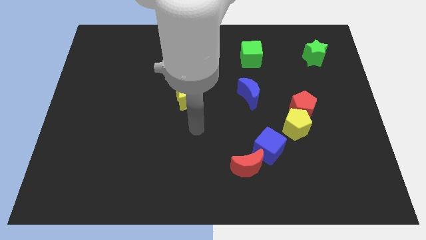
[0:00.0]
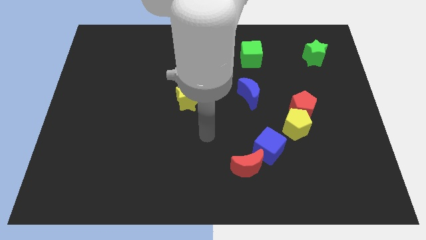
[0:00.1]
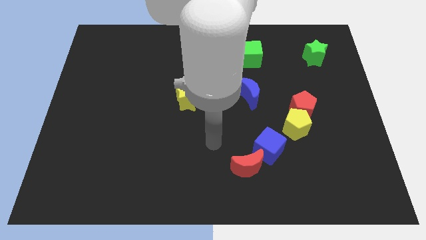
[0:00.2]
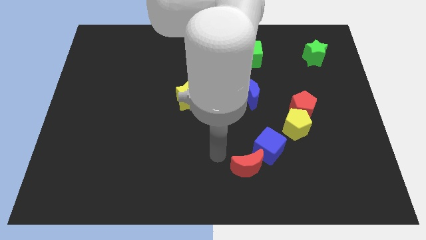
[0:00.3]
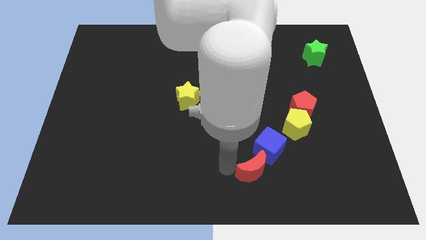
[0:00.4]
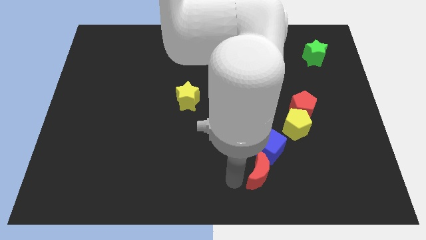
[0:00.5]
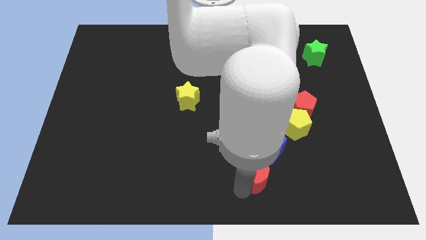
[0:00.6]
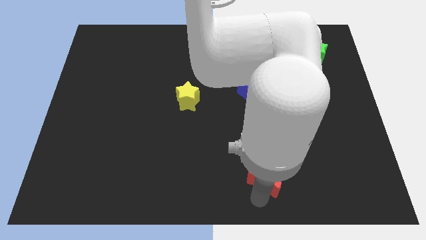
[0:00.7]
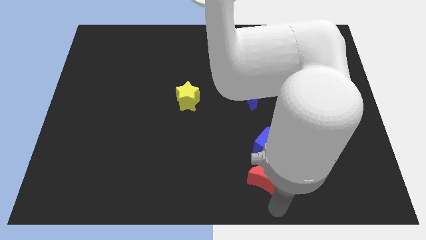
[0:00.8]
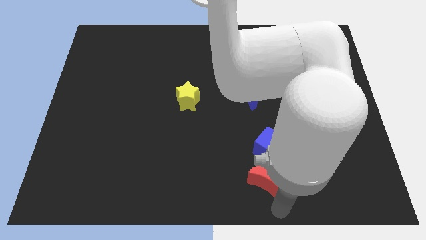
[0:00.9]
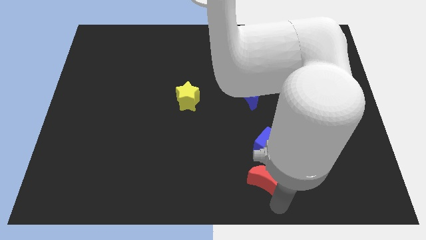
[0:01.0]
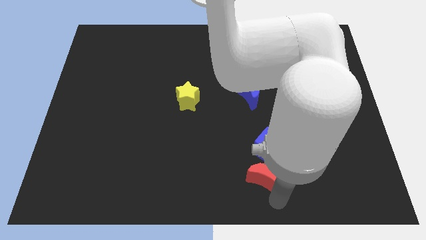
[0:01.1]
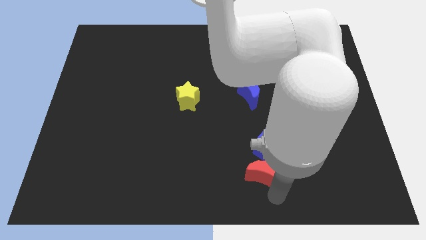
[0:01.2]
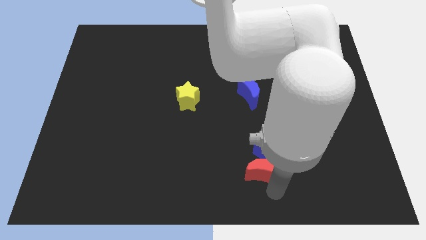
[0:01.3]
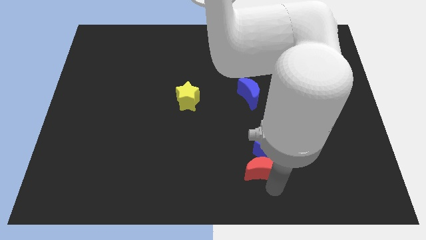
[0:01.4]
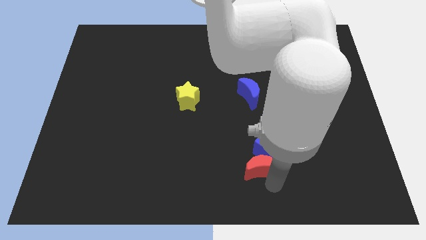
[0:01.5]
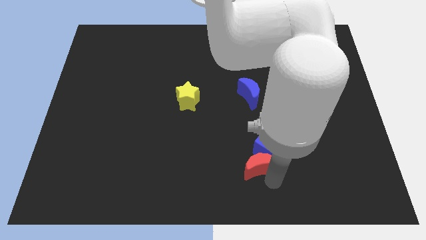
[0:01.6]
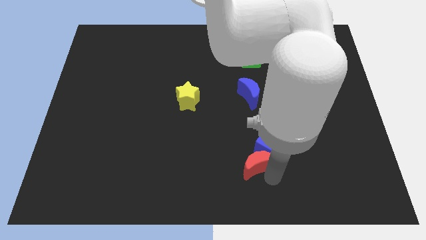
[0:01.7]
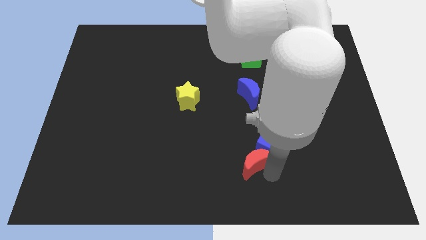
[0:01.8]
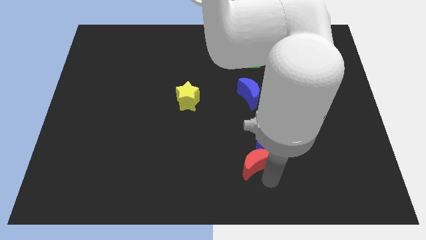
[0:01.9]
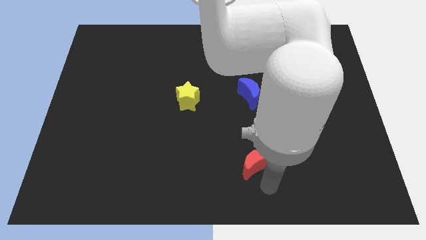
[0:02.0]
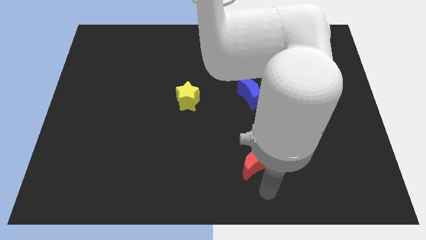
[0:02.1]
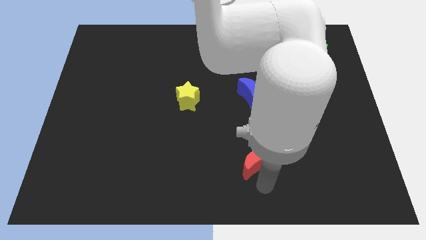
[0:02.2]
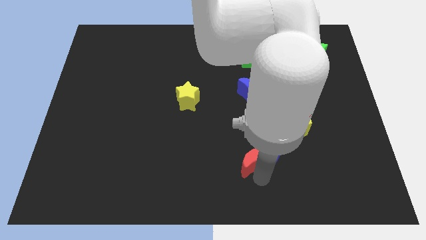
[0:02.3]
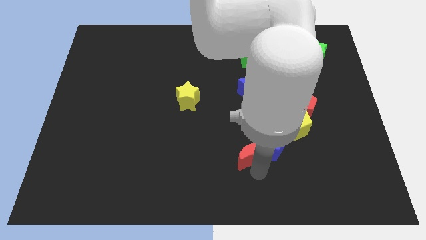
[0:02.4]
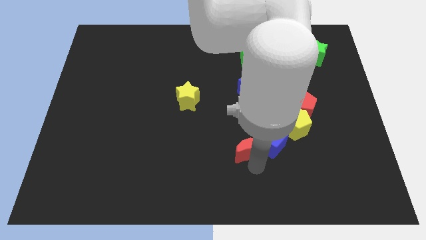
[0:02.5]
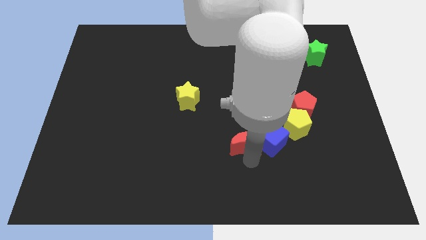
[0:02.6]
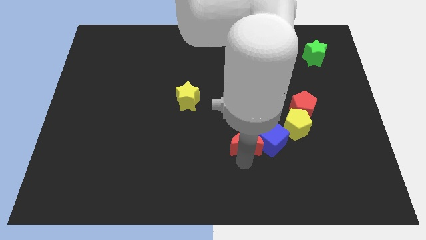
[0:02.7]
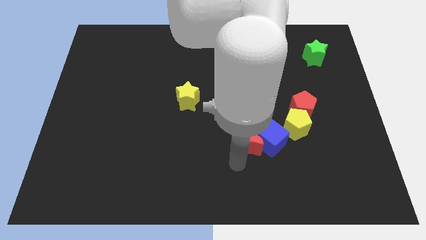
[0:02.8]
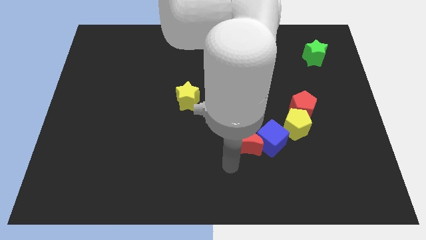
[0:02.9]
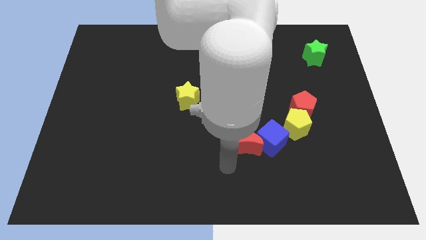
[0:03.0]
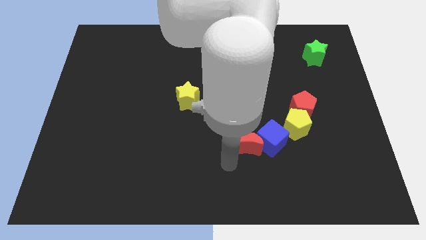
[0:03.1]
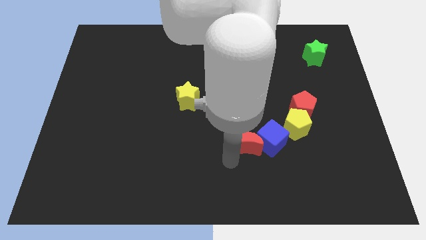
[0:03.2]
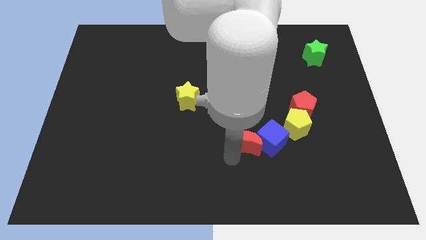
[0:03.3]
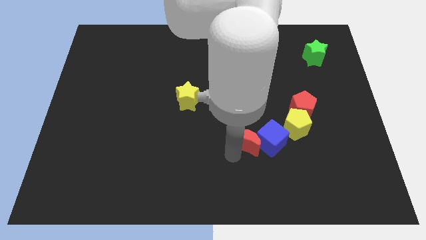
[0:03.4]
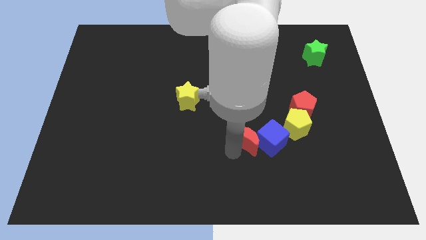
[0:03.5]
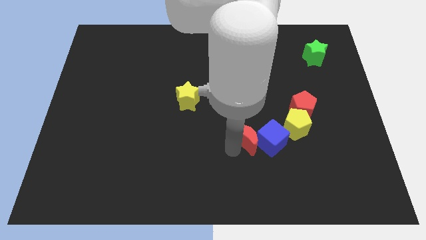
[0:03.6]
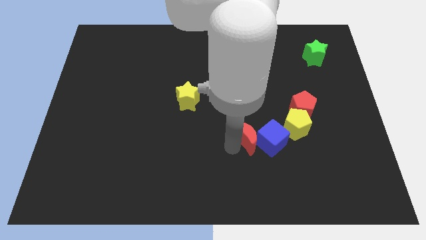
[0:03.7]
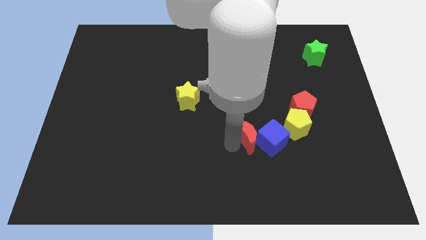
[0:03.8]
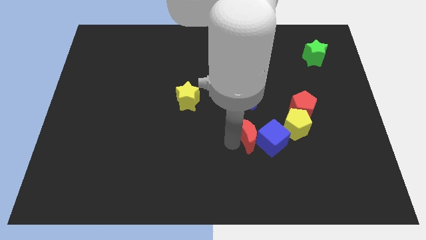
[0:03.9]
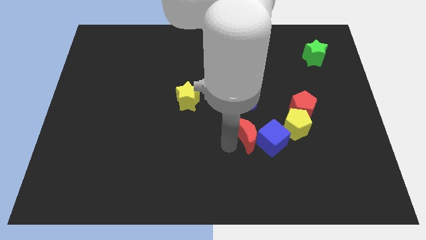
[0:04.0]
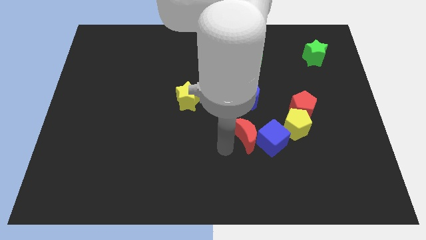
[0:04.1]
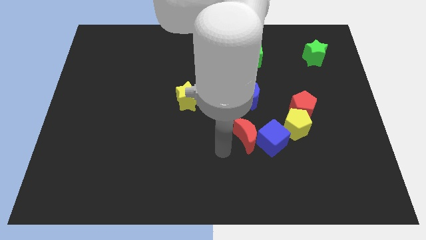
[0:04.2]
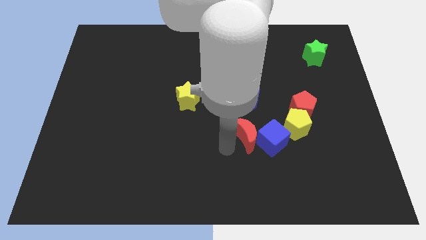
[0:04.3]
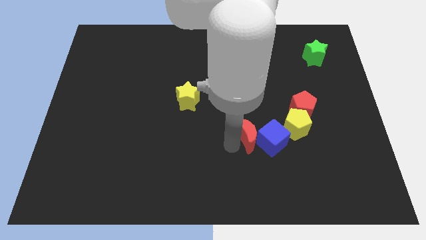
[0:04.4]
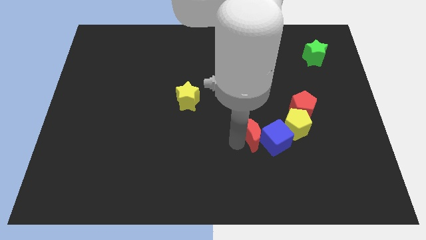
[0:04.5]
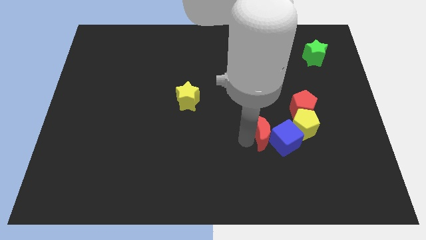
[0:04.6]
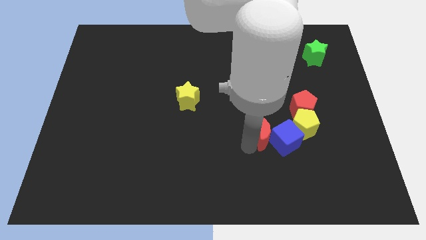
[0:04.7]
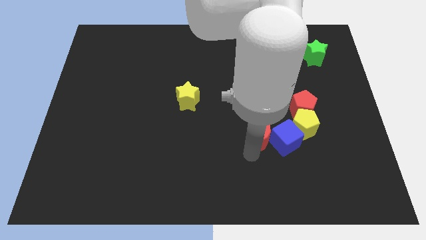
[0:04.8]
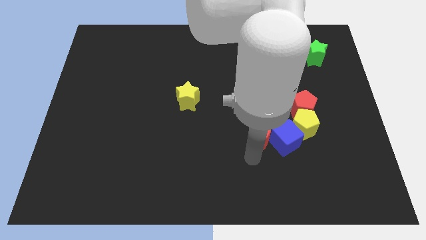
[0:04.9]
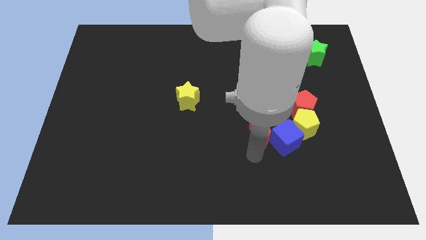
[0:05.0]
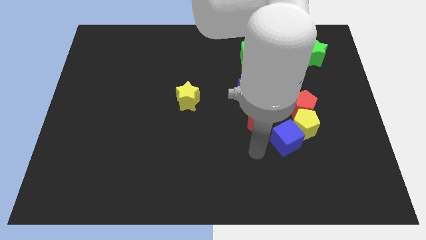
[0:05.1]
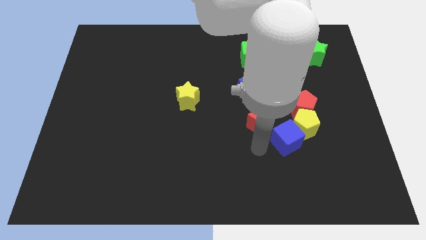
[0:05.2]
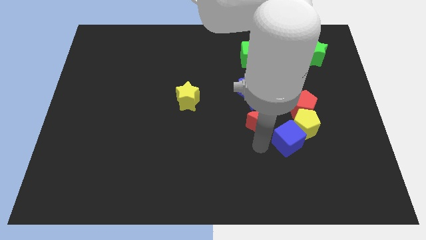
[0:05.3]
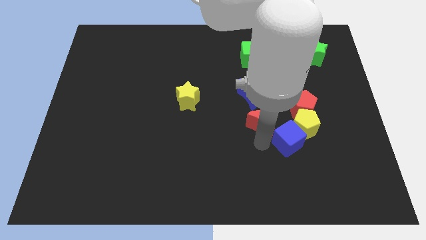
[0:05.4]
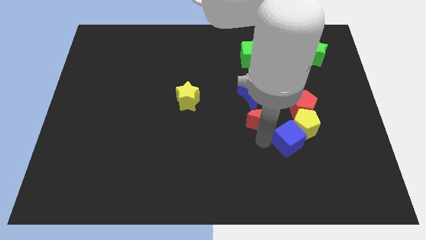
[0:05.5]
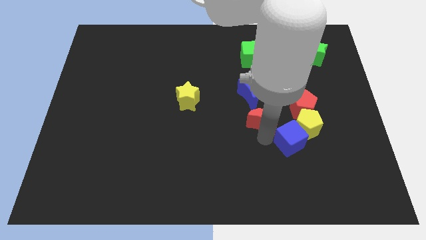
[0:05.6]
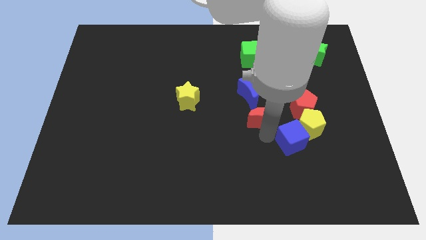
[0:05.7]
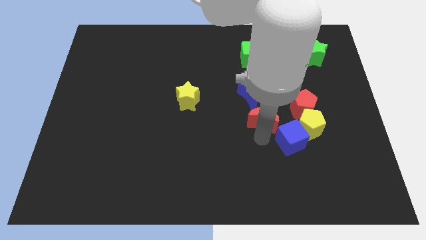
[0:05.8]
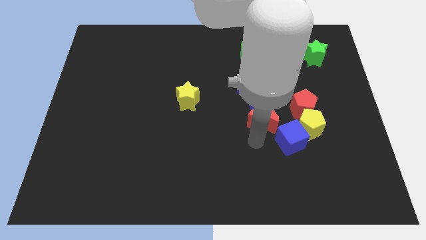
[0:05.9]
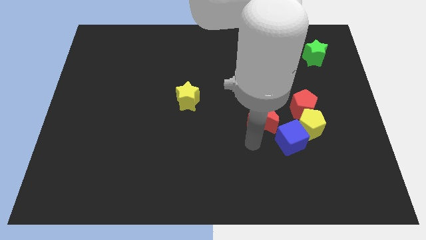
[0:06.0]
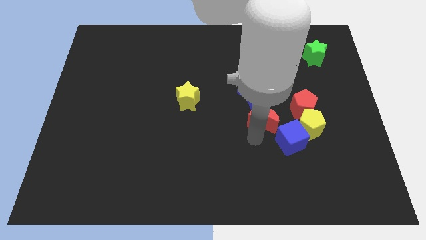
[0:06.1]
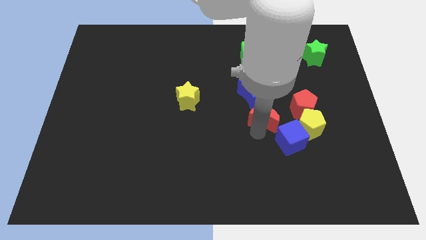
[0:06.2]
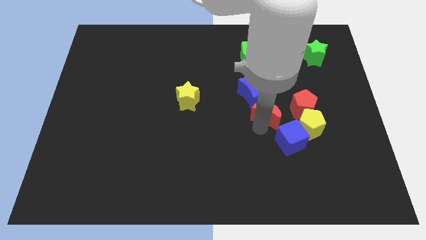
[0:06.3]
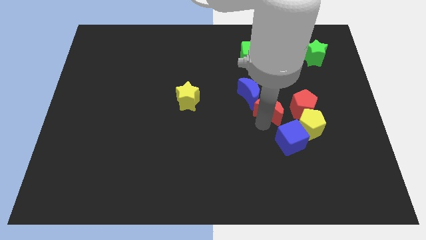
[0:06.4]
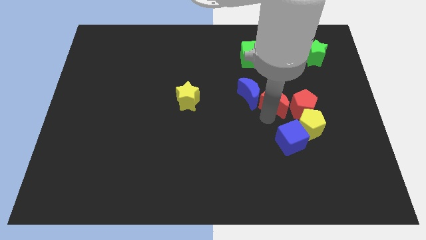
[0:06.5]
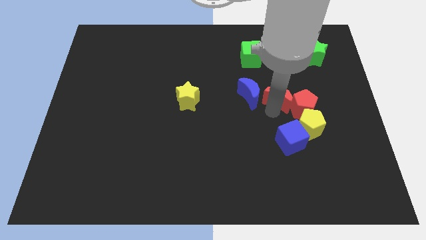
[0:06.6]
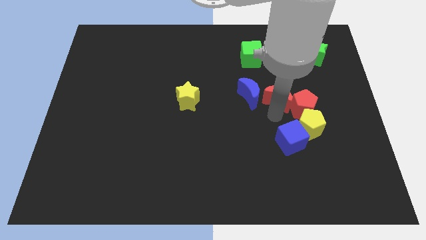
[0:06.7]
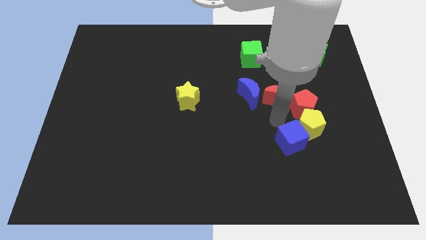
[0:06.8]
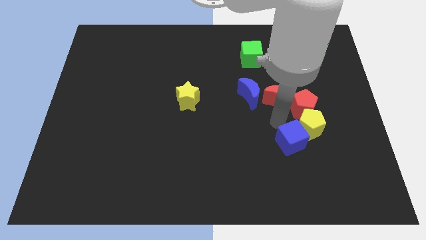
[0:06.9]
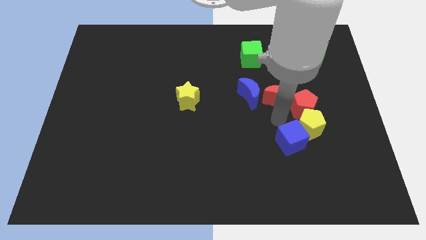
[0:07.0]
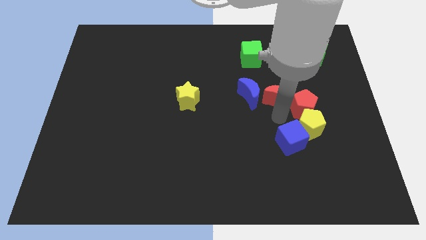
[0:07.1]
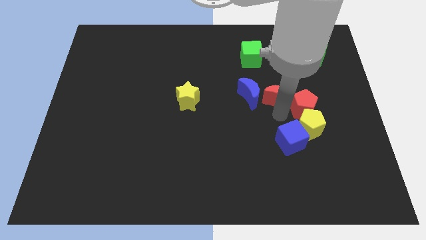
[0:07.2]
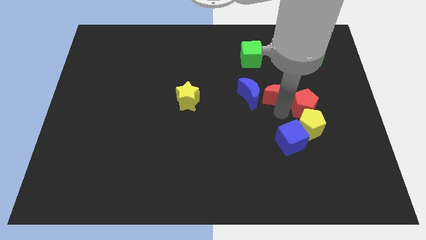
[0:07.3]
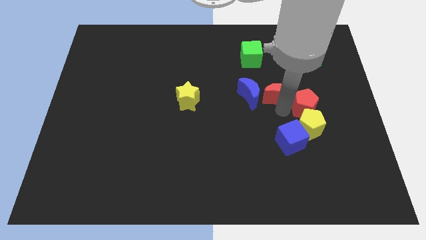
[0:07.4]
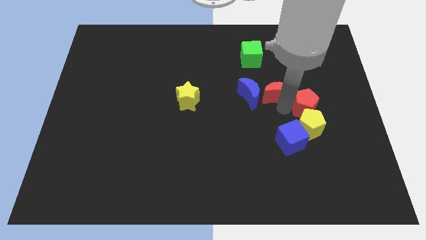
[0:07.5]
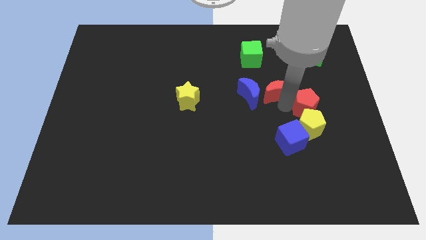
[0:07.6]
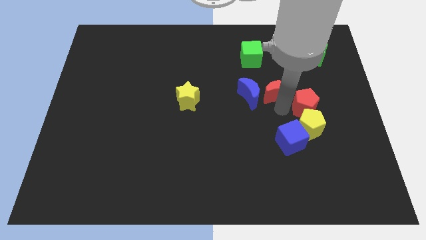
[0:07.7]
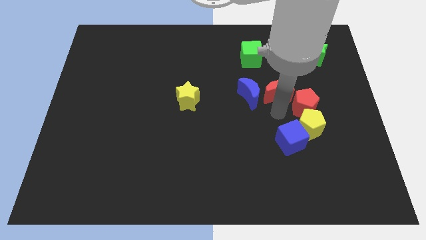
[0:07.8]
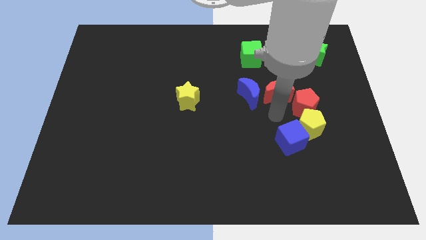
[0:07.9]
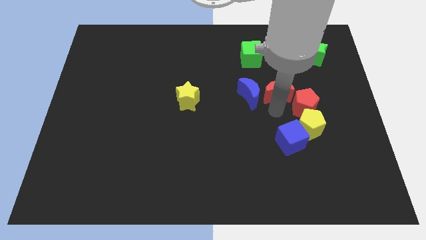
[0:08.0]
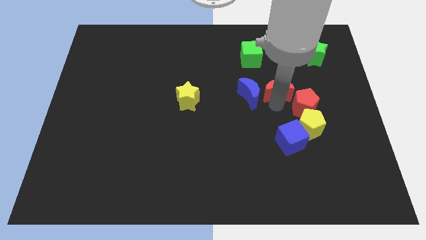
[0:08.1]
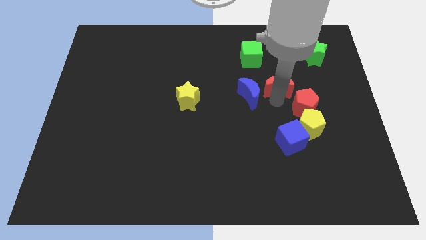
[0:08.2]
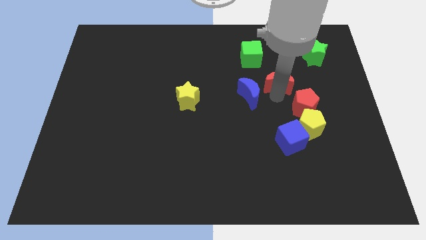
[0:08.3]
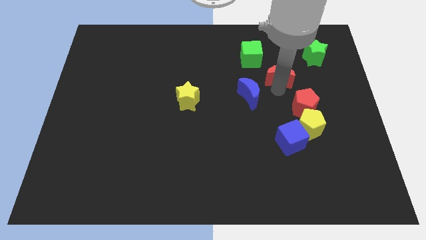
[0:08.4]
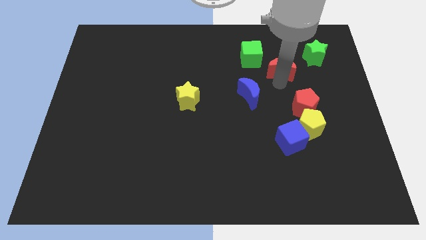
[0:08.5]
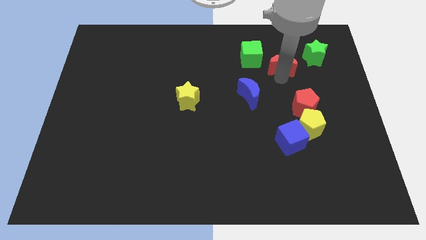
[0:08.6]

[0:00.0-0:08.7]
move the red moon left of the green star
